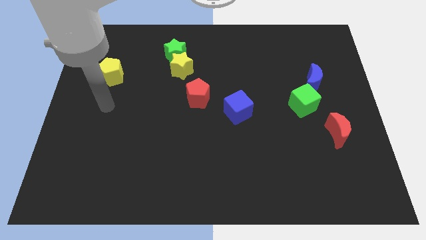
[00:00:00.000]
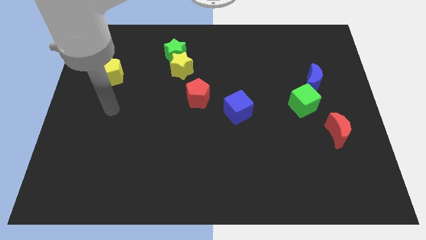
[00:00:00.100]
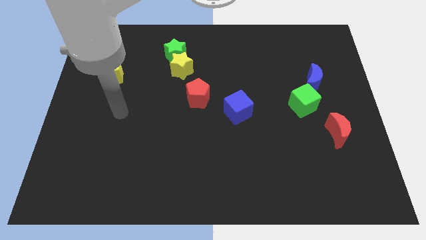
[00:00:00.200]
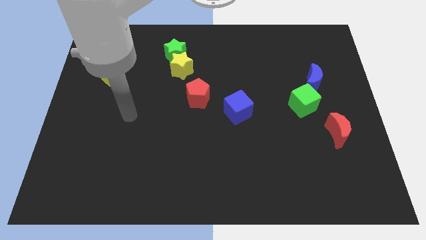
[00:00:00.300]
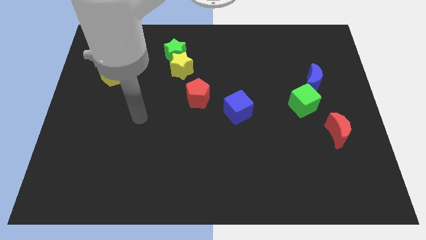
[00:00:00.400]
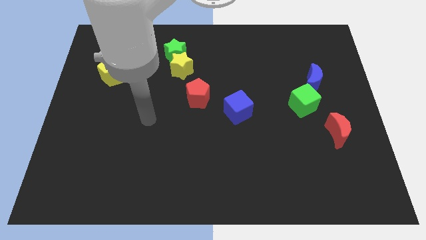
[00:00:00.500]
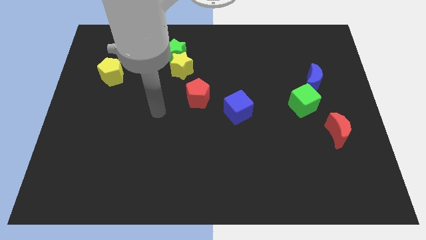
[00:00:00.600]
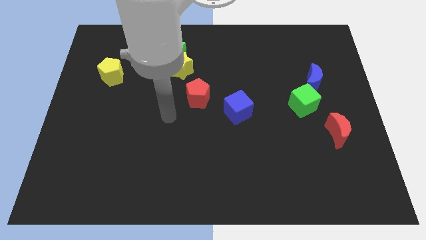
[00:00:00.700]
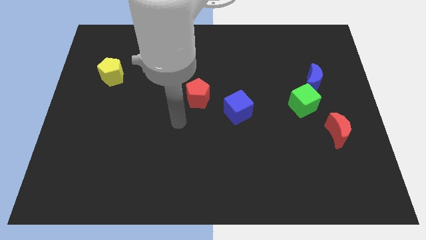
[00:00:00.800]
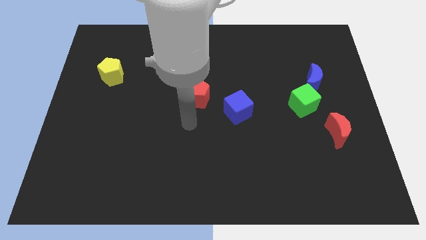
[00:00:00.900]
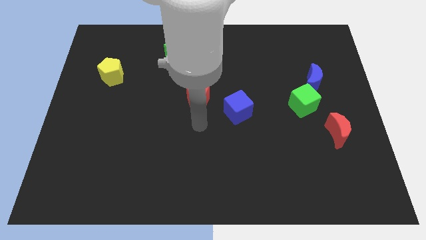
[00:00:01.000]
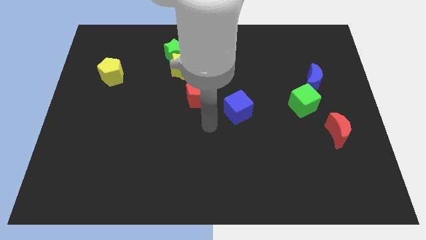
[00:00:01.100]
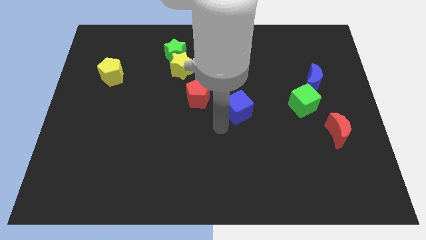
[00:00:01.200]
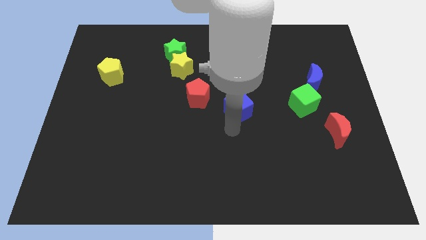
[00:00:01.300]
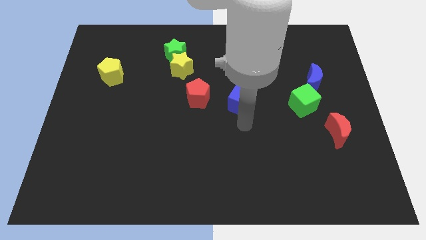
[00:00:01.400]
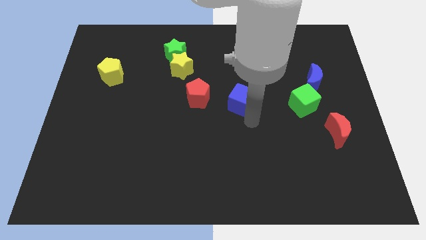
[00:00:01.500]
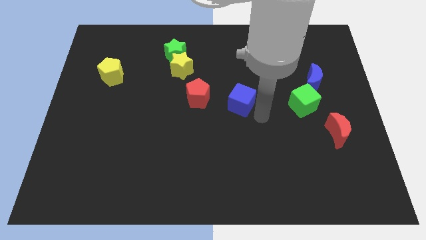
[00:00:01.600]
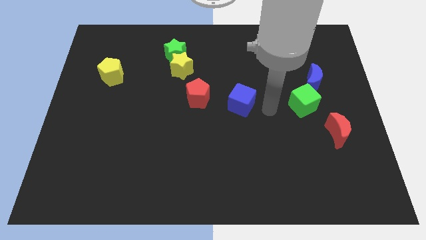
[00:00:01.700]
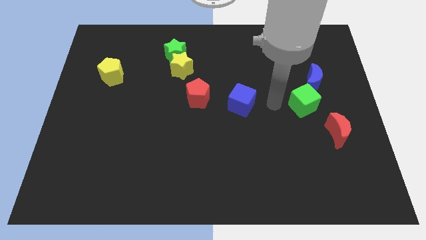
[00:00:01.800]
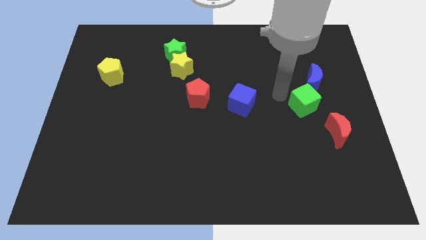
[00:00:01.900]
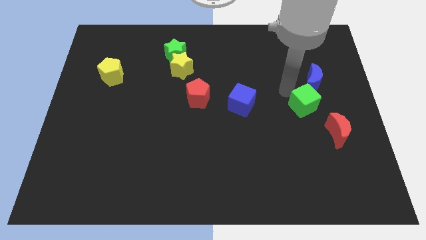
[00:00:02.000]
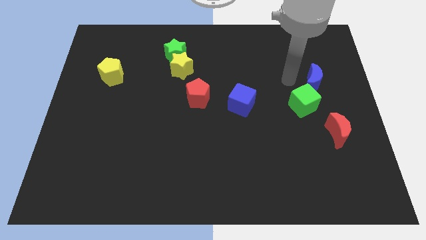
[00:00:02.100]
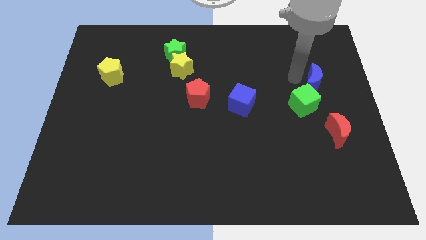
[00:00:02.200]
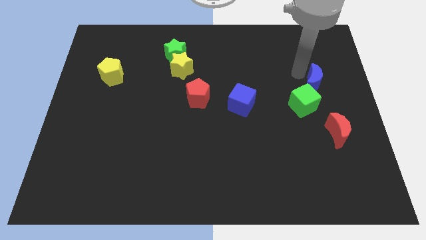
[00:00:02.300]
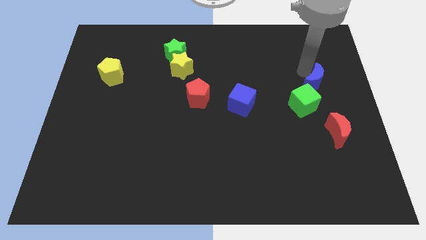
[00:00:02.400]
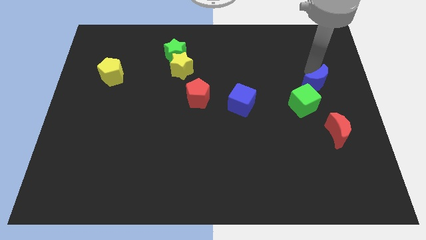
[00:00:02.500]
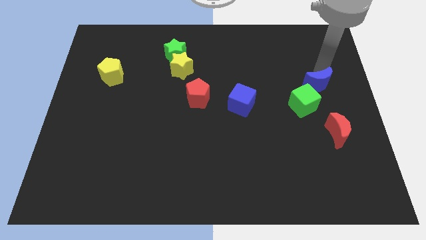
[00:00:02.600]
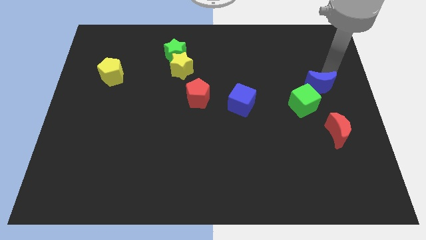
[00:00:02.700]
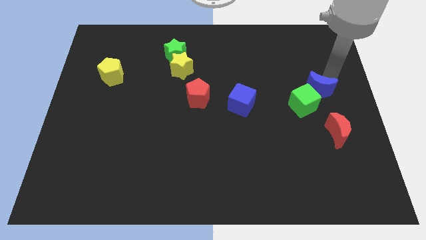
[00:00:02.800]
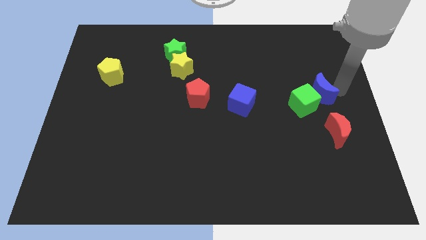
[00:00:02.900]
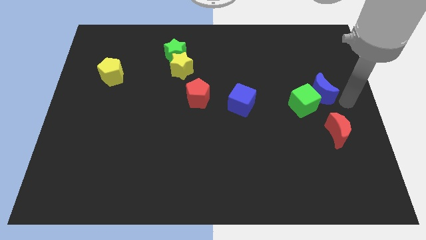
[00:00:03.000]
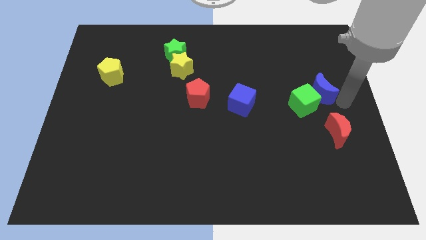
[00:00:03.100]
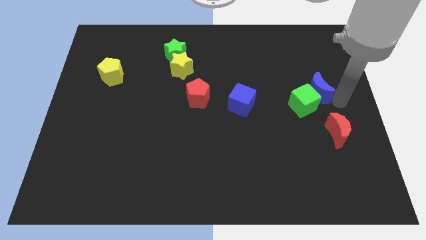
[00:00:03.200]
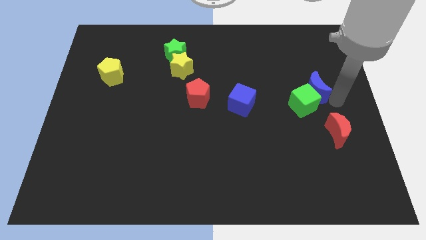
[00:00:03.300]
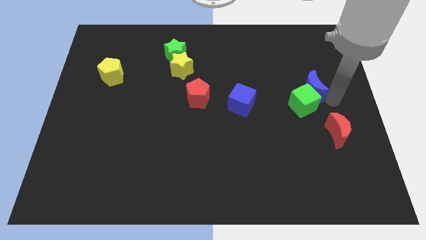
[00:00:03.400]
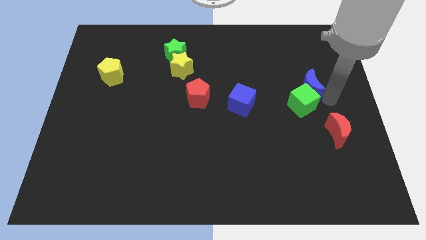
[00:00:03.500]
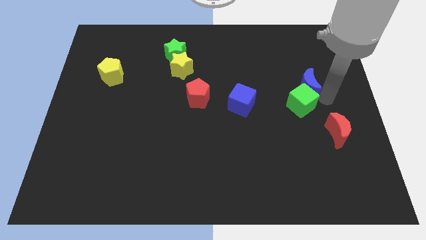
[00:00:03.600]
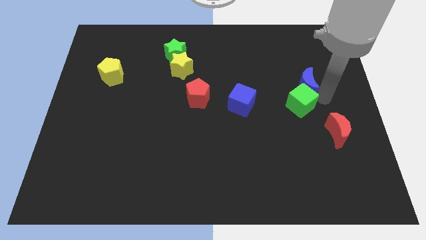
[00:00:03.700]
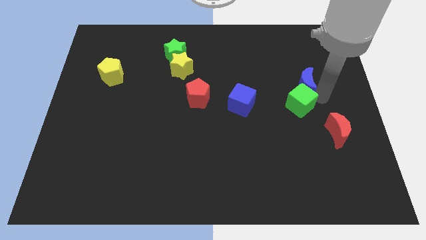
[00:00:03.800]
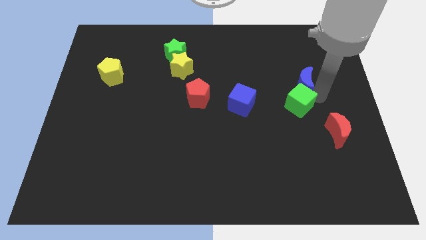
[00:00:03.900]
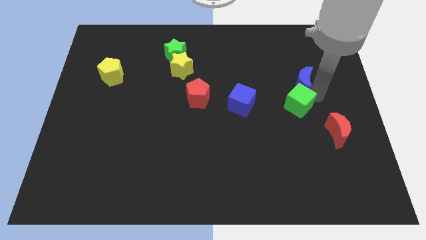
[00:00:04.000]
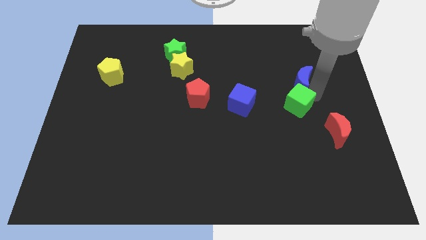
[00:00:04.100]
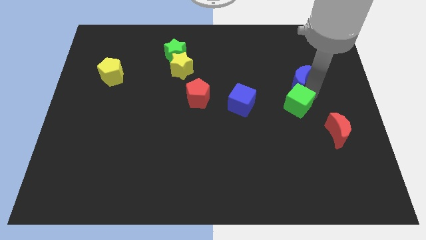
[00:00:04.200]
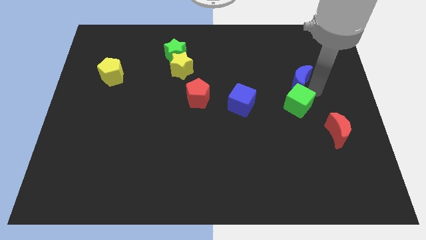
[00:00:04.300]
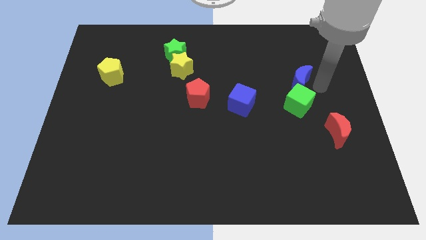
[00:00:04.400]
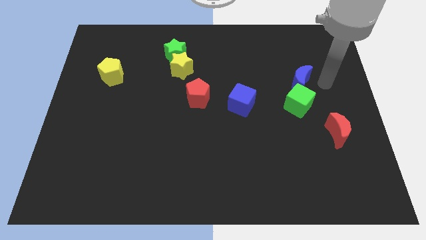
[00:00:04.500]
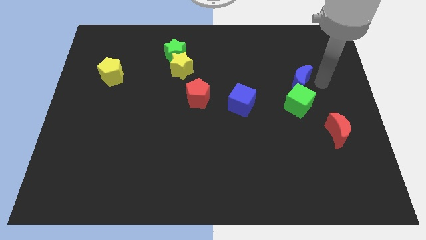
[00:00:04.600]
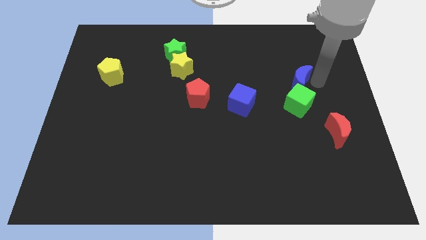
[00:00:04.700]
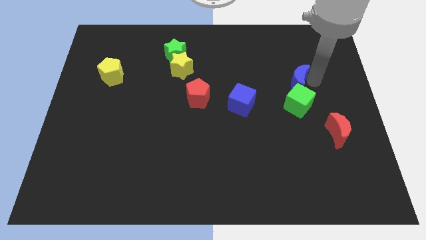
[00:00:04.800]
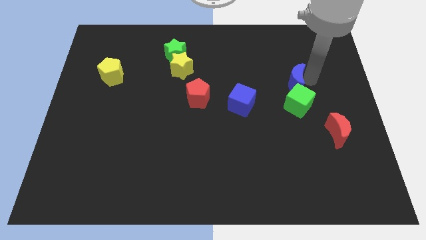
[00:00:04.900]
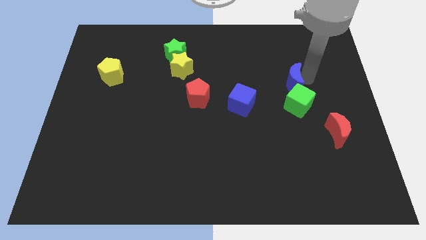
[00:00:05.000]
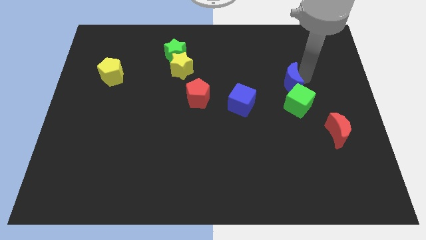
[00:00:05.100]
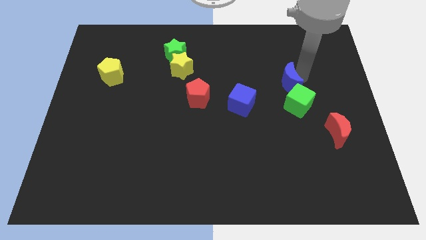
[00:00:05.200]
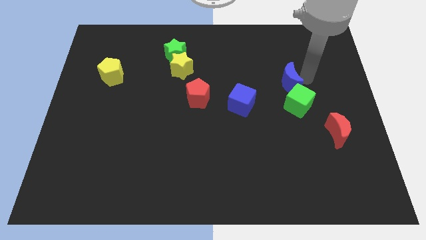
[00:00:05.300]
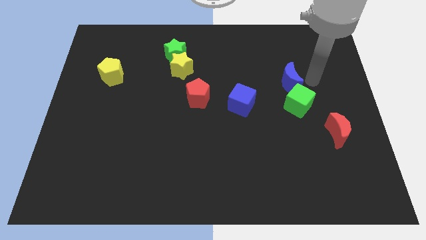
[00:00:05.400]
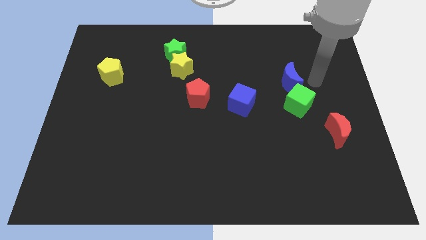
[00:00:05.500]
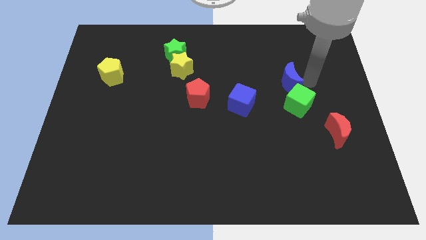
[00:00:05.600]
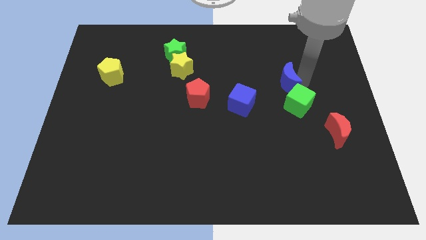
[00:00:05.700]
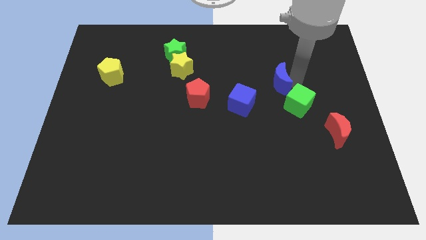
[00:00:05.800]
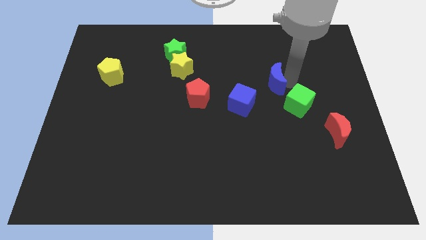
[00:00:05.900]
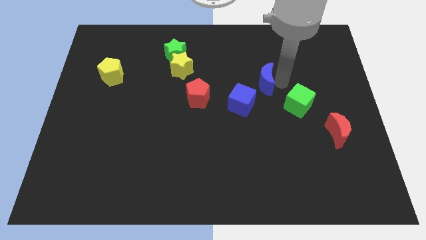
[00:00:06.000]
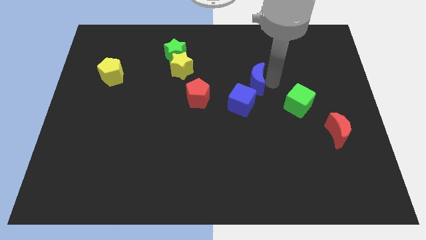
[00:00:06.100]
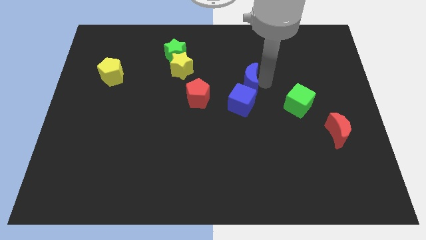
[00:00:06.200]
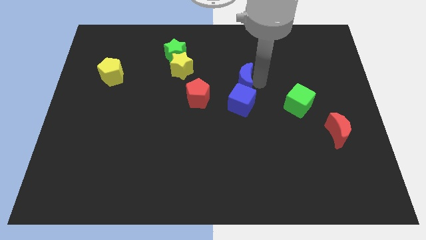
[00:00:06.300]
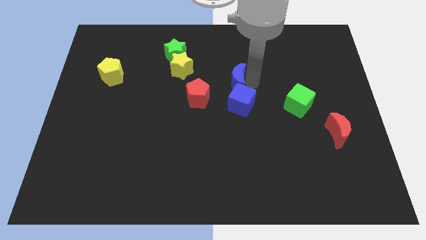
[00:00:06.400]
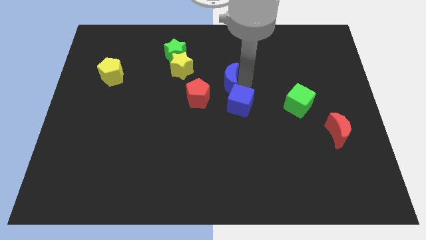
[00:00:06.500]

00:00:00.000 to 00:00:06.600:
push the blue moon to the left

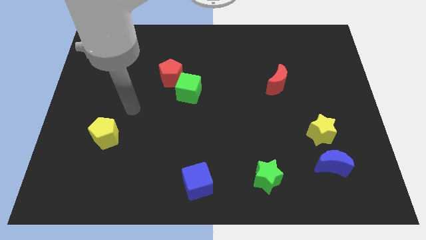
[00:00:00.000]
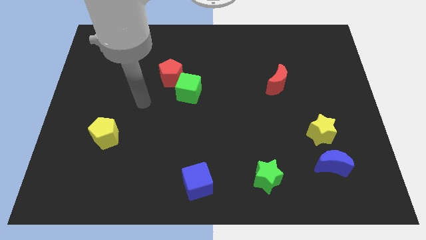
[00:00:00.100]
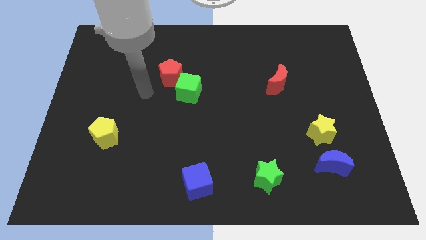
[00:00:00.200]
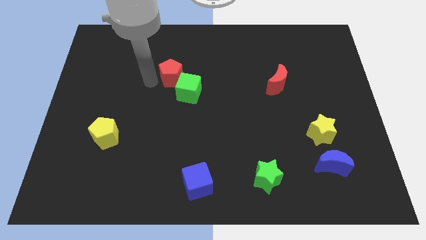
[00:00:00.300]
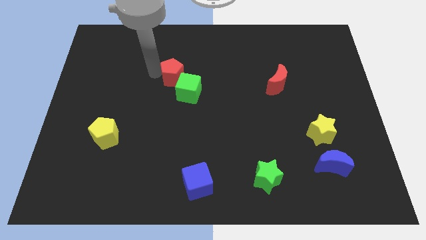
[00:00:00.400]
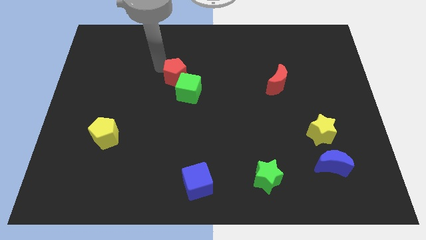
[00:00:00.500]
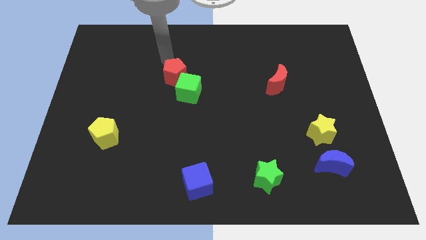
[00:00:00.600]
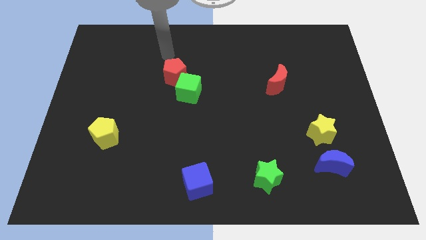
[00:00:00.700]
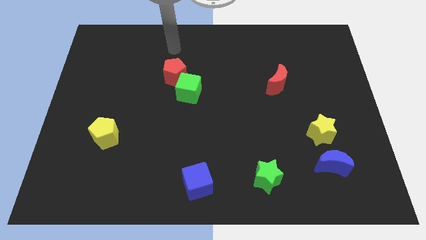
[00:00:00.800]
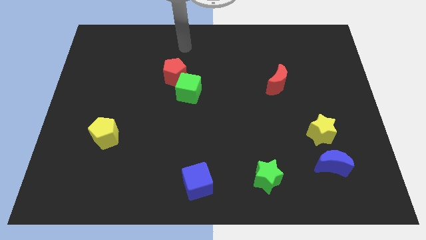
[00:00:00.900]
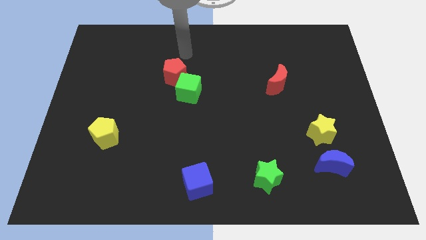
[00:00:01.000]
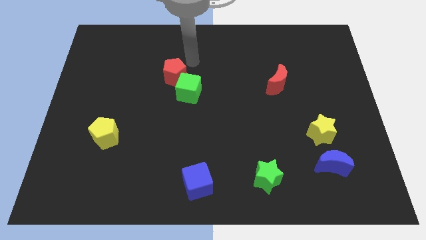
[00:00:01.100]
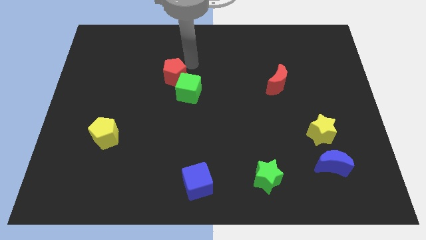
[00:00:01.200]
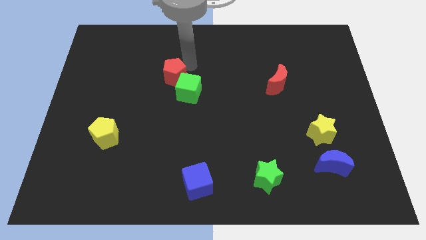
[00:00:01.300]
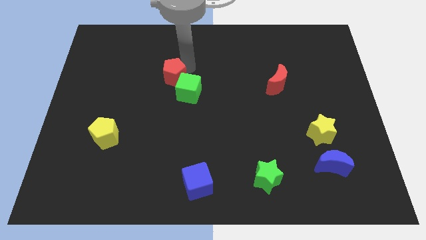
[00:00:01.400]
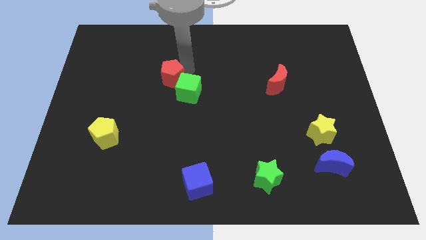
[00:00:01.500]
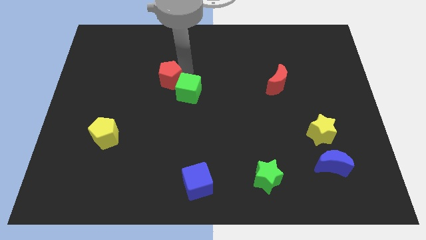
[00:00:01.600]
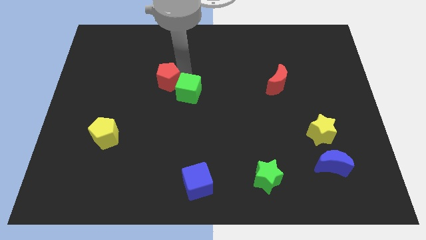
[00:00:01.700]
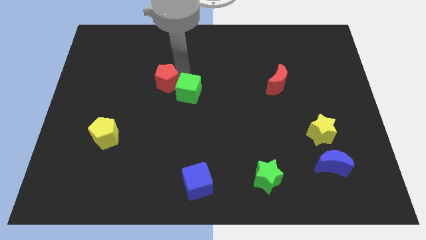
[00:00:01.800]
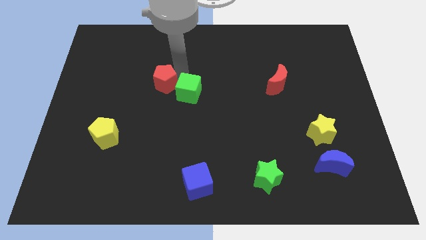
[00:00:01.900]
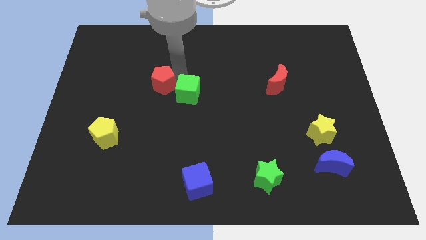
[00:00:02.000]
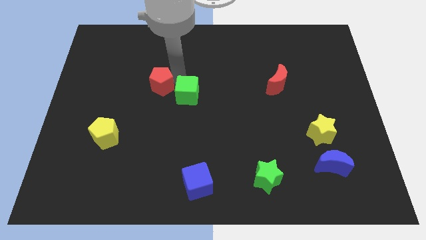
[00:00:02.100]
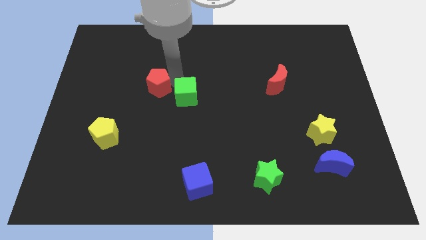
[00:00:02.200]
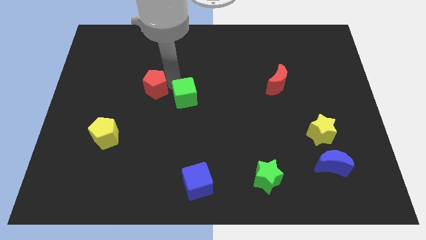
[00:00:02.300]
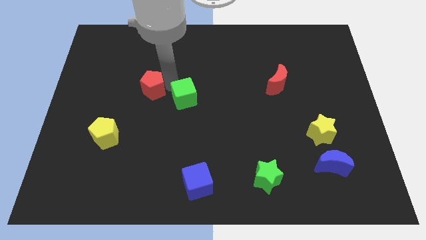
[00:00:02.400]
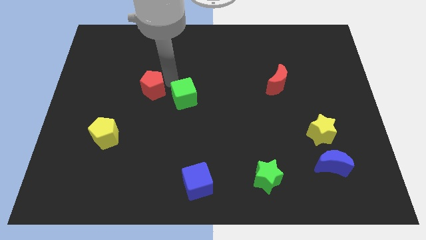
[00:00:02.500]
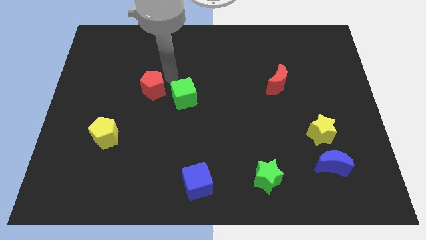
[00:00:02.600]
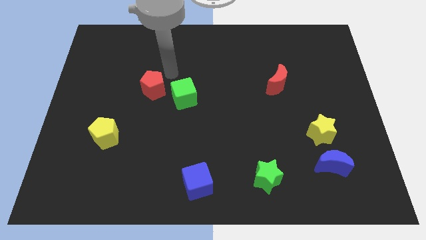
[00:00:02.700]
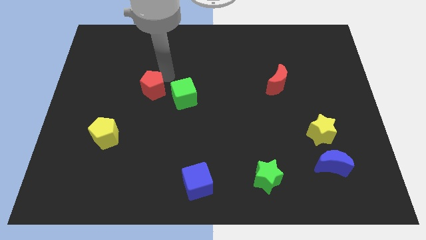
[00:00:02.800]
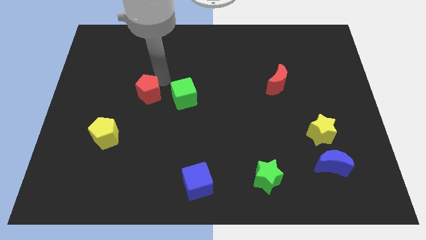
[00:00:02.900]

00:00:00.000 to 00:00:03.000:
slightly push the red pentagon downwards and to the left
